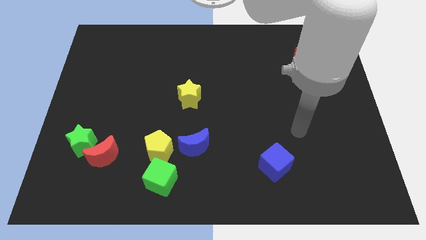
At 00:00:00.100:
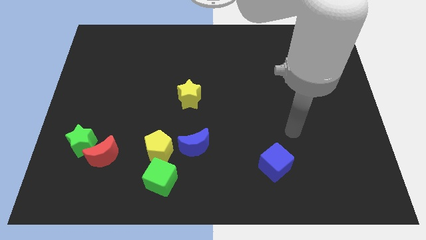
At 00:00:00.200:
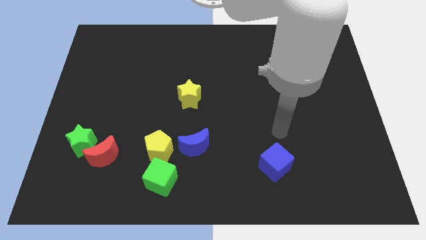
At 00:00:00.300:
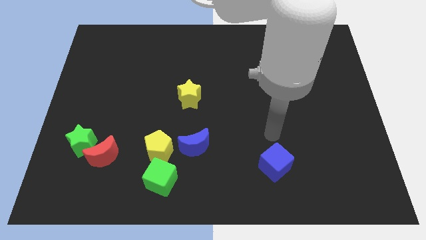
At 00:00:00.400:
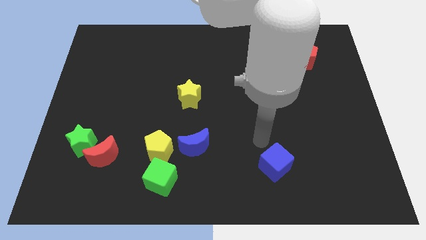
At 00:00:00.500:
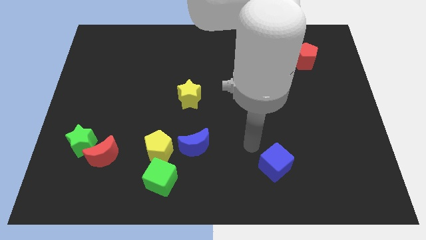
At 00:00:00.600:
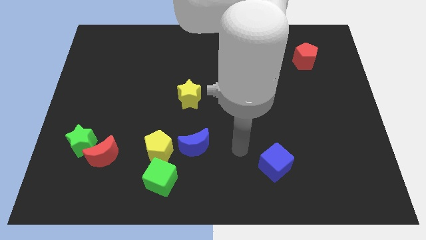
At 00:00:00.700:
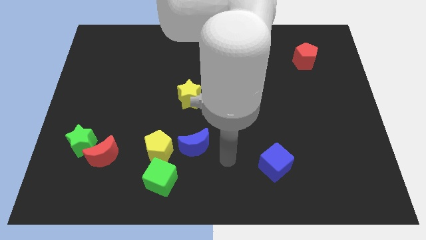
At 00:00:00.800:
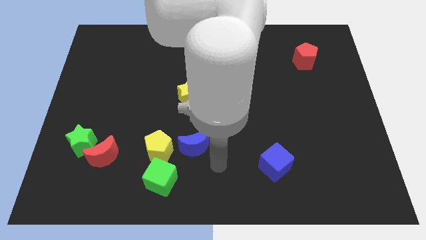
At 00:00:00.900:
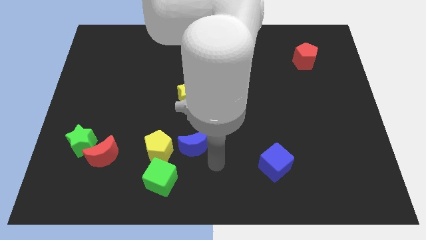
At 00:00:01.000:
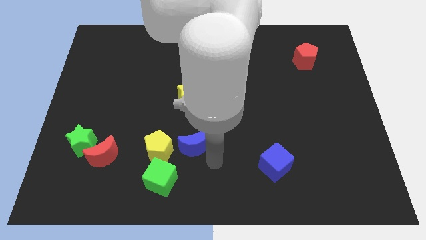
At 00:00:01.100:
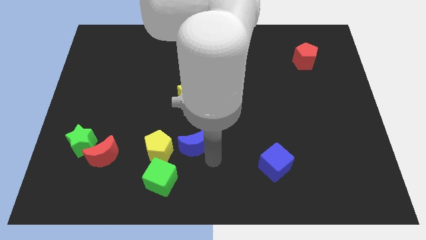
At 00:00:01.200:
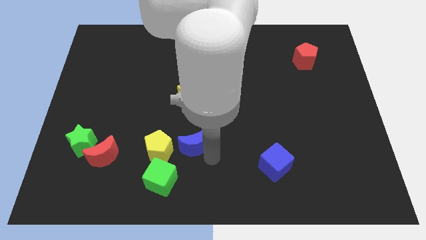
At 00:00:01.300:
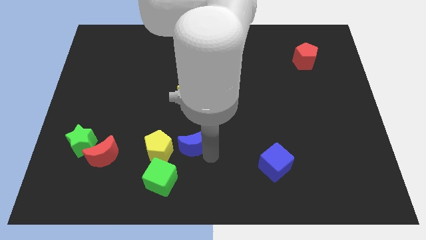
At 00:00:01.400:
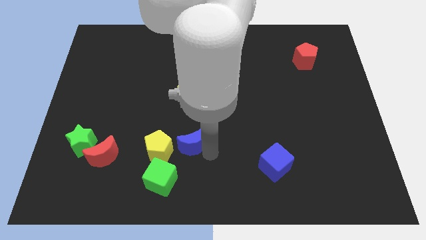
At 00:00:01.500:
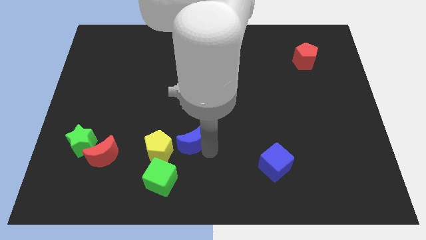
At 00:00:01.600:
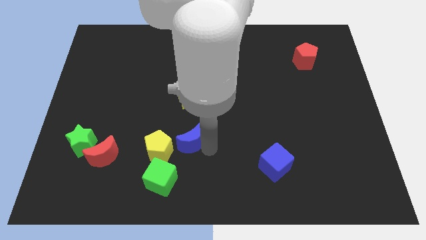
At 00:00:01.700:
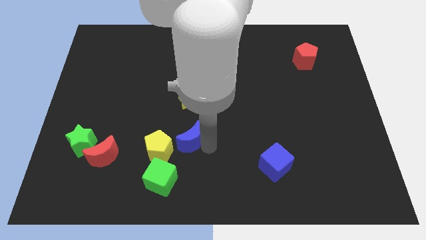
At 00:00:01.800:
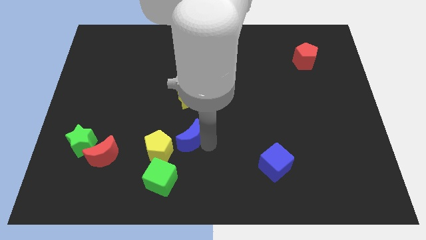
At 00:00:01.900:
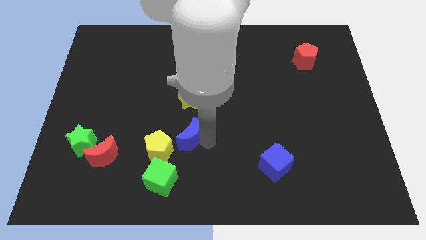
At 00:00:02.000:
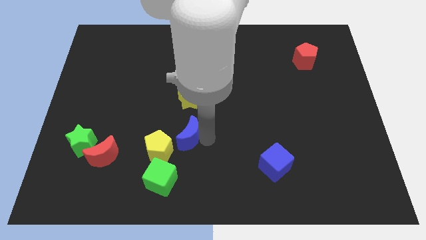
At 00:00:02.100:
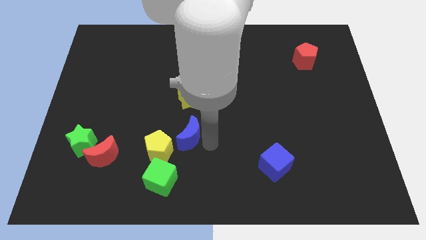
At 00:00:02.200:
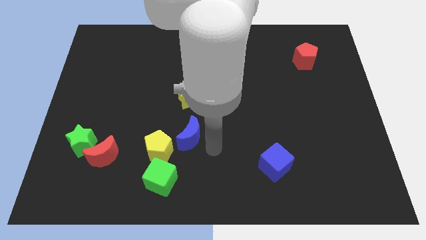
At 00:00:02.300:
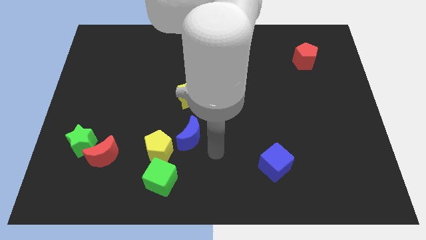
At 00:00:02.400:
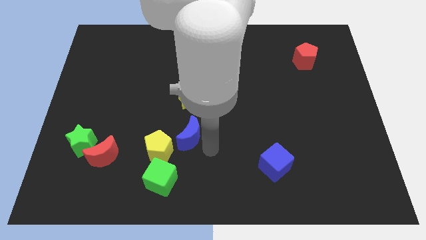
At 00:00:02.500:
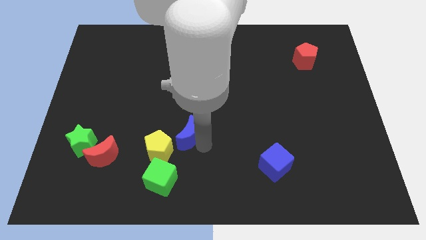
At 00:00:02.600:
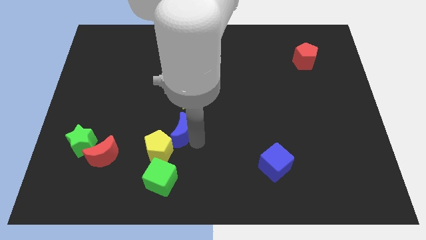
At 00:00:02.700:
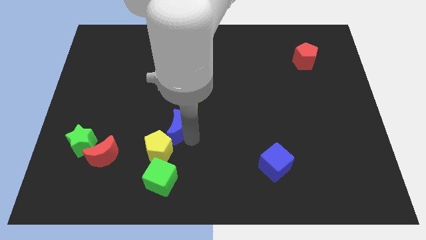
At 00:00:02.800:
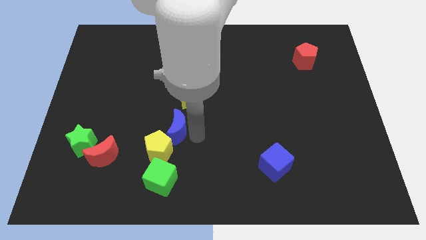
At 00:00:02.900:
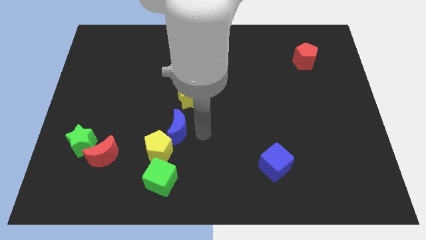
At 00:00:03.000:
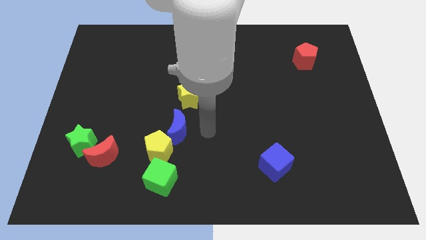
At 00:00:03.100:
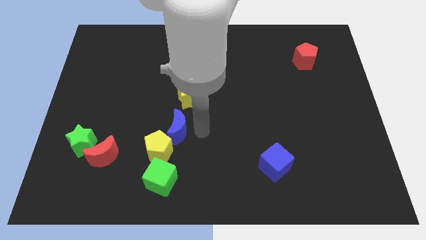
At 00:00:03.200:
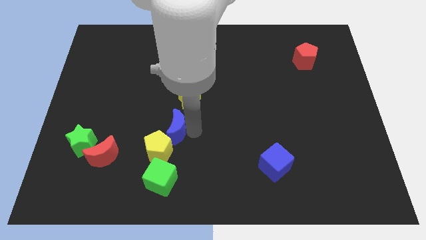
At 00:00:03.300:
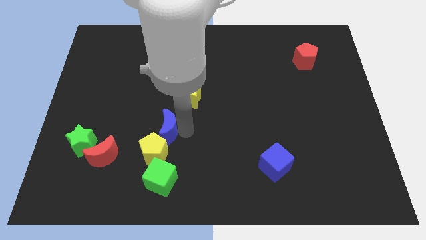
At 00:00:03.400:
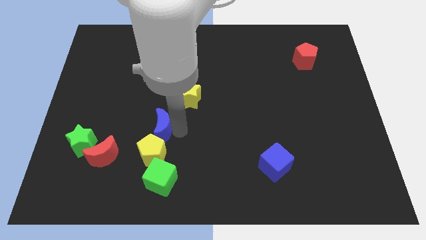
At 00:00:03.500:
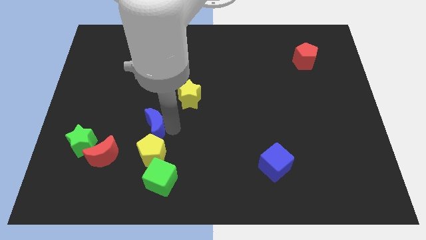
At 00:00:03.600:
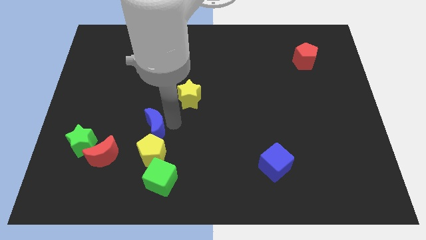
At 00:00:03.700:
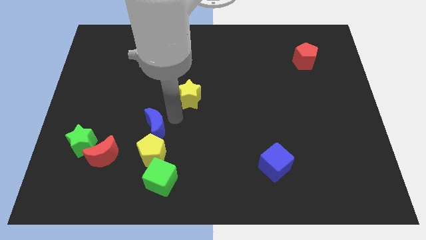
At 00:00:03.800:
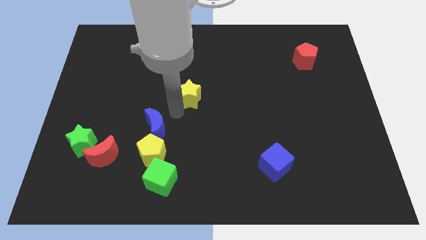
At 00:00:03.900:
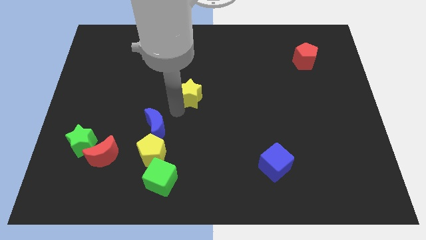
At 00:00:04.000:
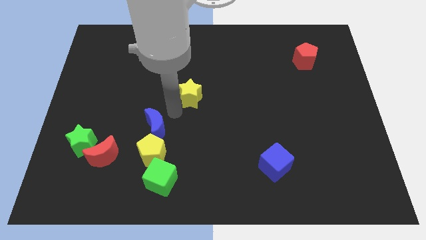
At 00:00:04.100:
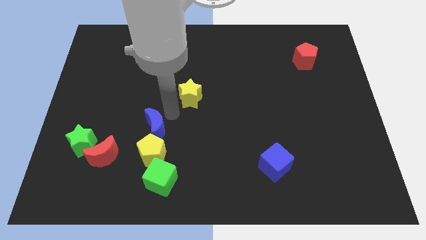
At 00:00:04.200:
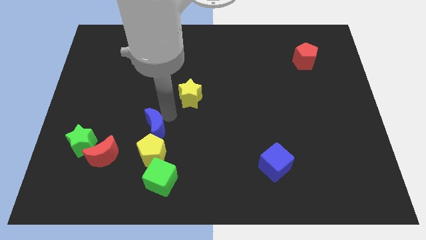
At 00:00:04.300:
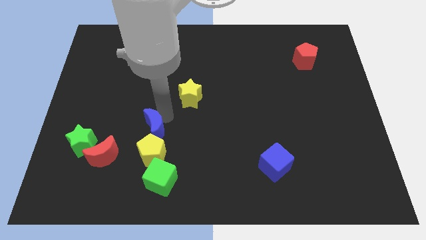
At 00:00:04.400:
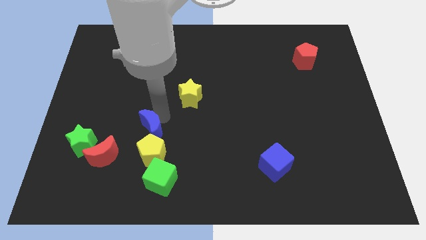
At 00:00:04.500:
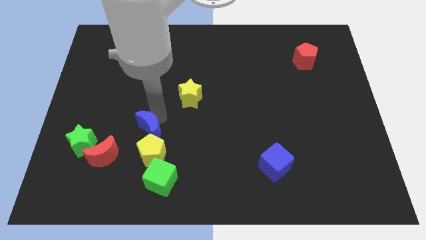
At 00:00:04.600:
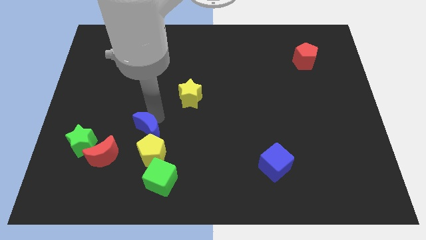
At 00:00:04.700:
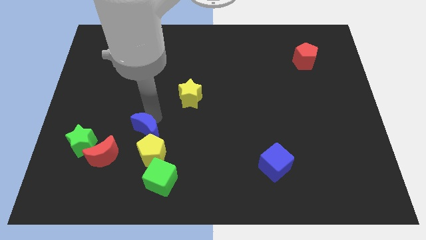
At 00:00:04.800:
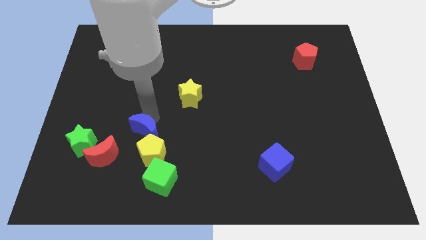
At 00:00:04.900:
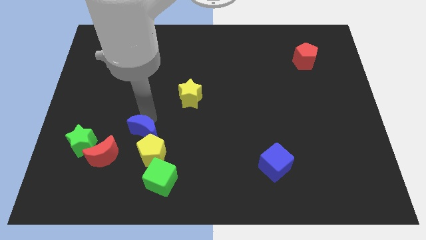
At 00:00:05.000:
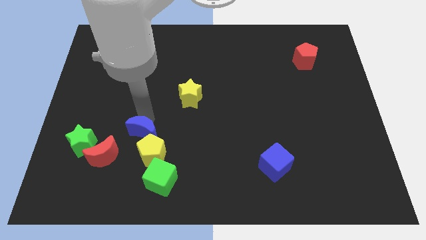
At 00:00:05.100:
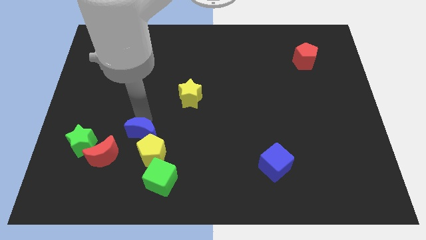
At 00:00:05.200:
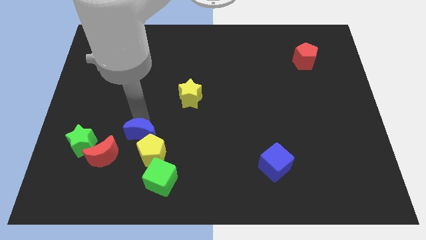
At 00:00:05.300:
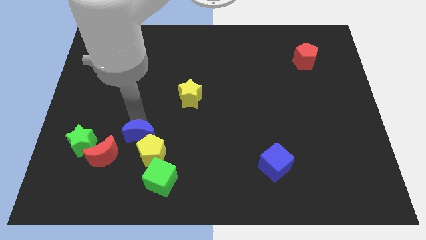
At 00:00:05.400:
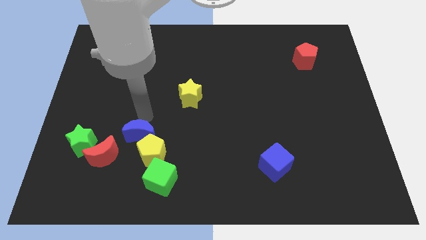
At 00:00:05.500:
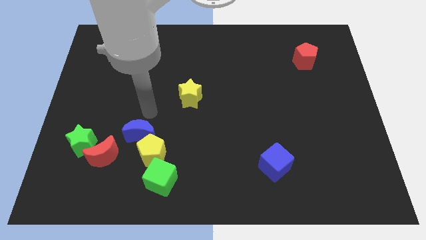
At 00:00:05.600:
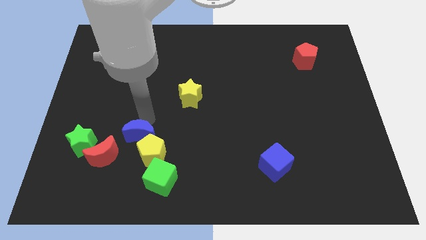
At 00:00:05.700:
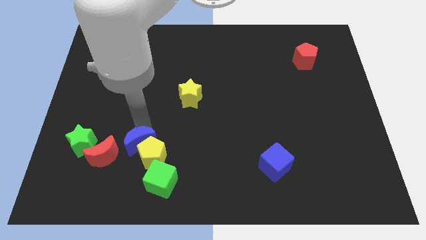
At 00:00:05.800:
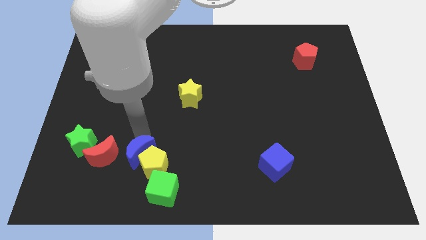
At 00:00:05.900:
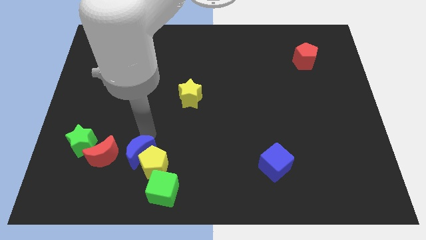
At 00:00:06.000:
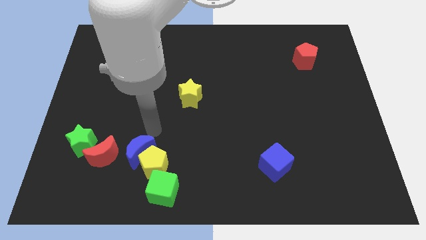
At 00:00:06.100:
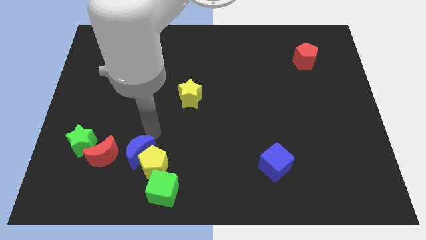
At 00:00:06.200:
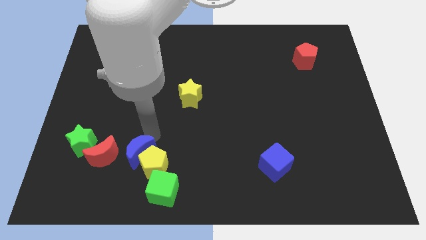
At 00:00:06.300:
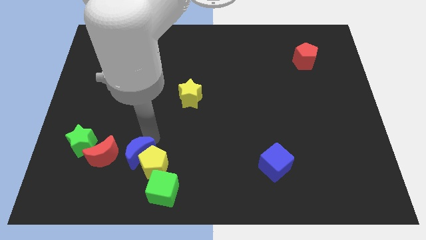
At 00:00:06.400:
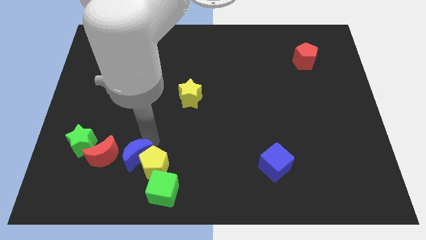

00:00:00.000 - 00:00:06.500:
put the blue moon to the bottom right side of the red moon

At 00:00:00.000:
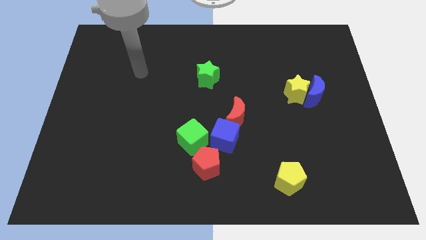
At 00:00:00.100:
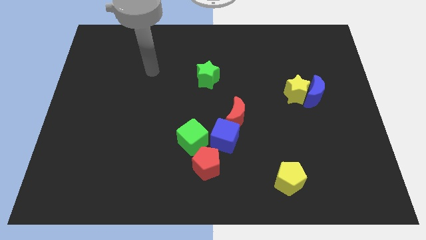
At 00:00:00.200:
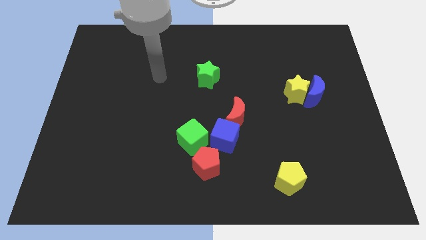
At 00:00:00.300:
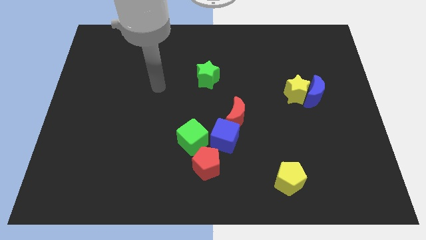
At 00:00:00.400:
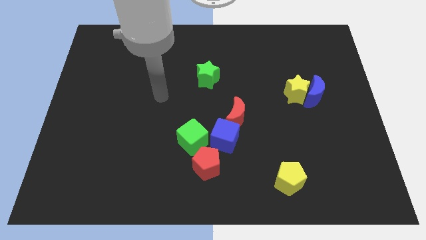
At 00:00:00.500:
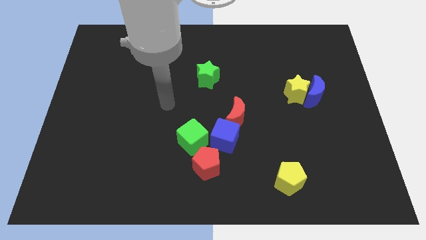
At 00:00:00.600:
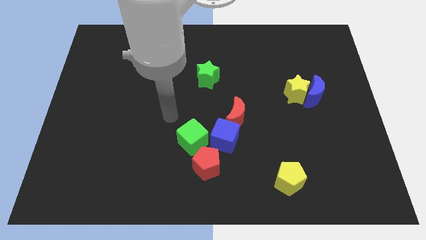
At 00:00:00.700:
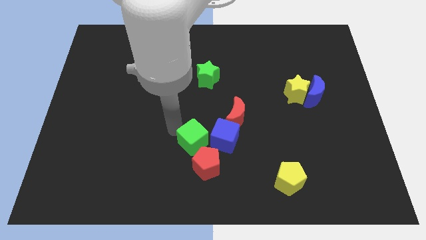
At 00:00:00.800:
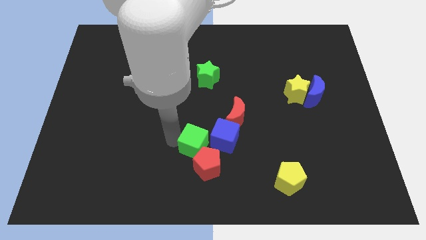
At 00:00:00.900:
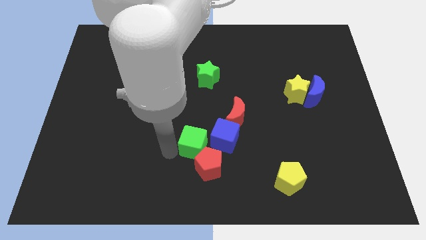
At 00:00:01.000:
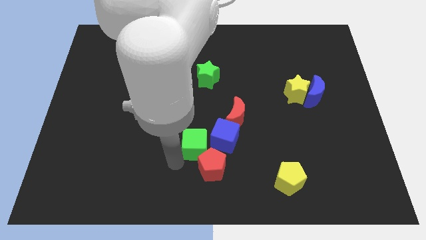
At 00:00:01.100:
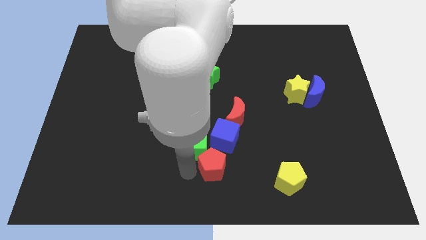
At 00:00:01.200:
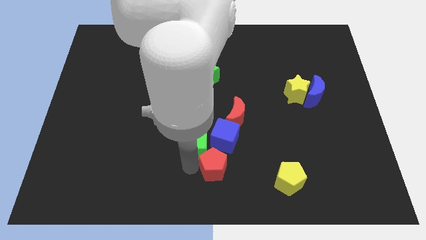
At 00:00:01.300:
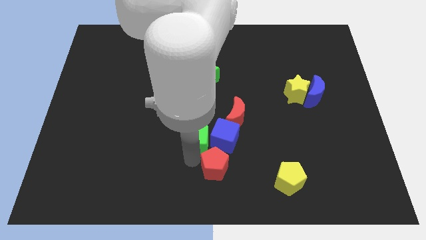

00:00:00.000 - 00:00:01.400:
move the green cube diagonally up and to the left of the blue cube
